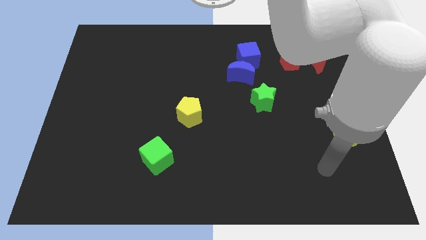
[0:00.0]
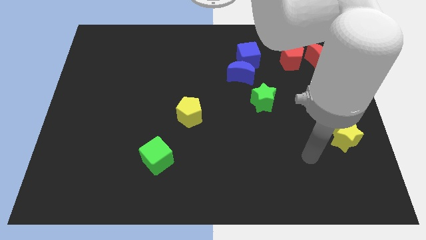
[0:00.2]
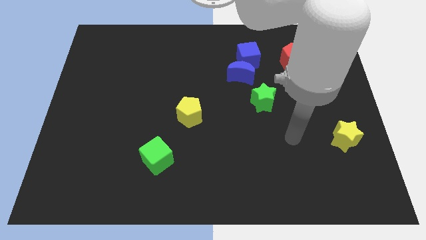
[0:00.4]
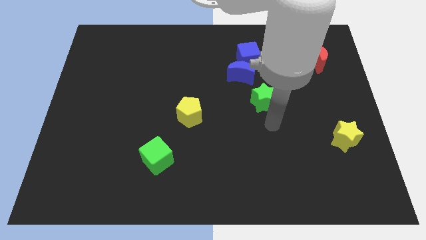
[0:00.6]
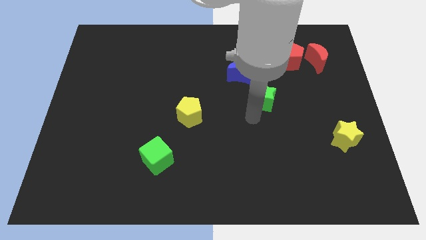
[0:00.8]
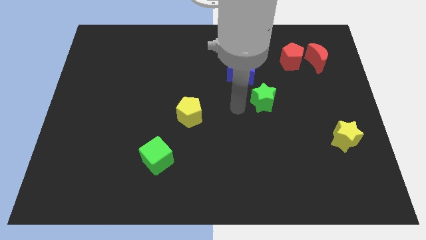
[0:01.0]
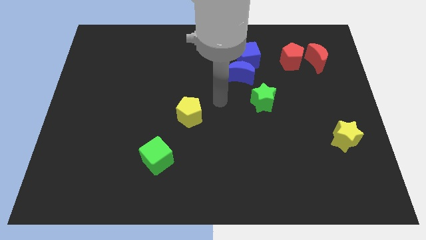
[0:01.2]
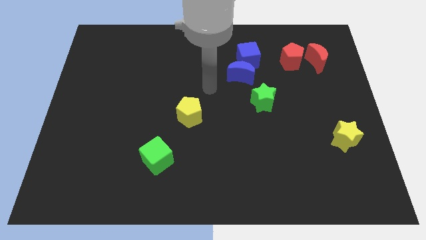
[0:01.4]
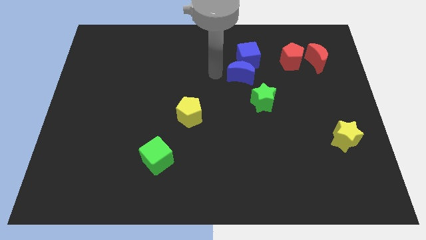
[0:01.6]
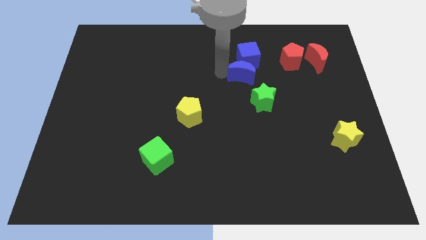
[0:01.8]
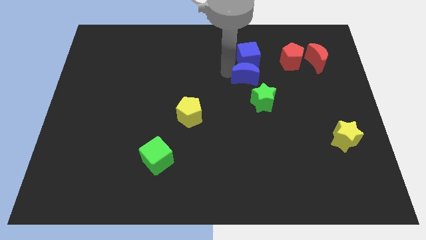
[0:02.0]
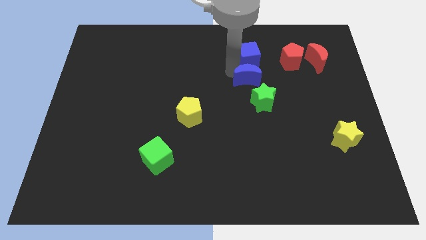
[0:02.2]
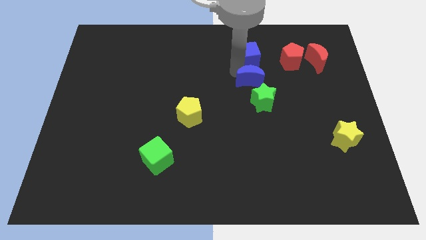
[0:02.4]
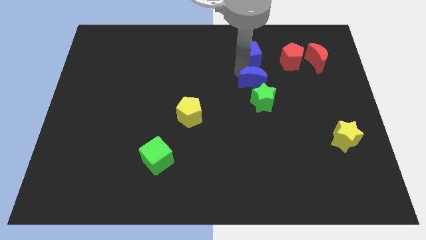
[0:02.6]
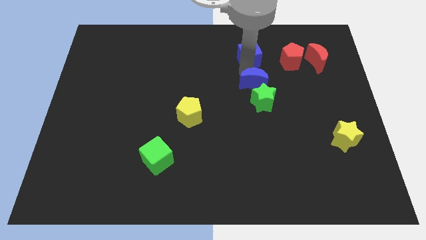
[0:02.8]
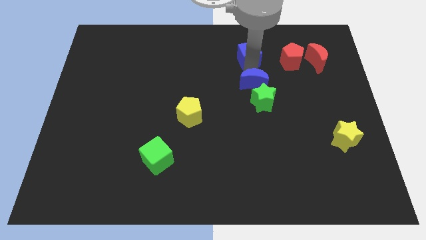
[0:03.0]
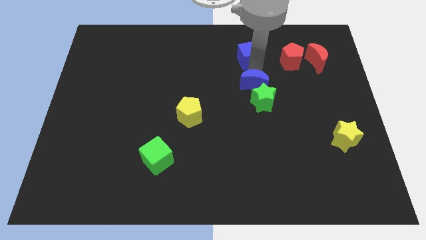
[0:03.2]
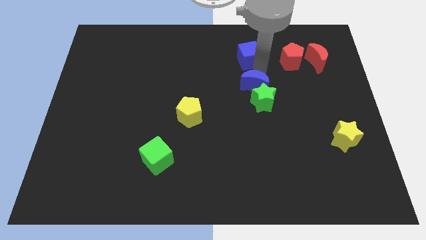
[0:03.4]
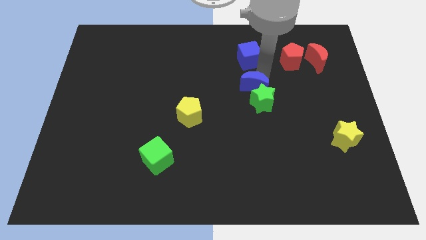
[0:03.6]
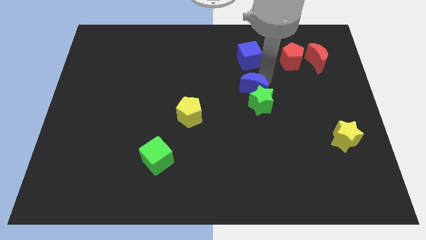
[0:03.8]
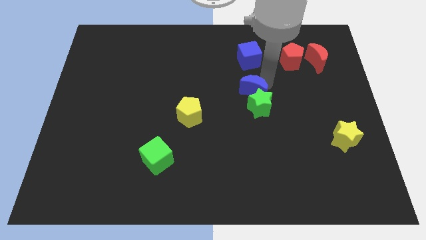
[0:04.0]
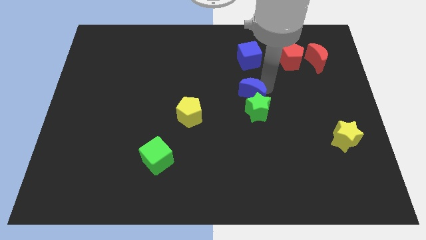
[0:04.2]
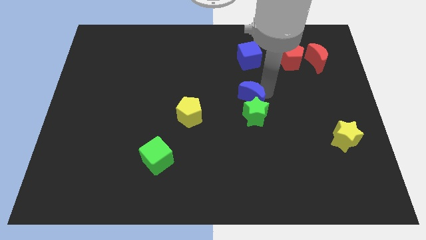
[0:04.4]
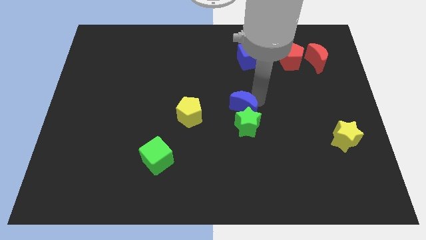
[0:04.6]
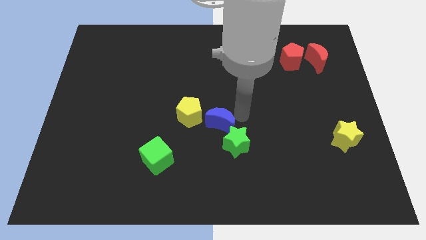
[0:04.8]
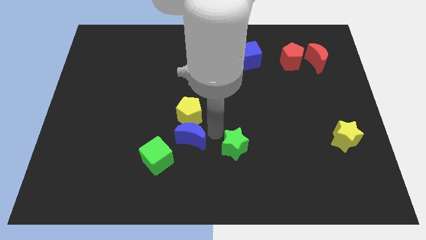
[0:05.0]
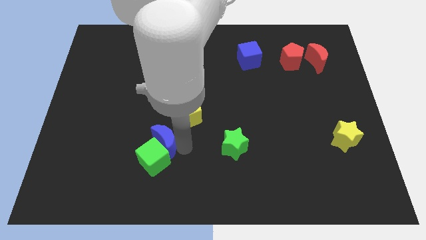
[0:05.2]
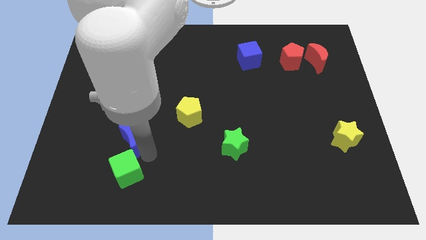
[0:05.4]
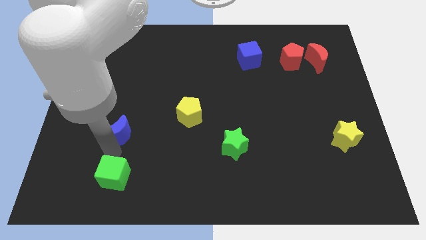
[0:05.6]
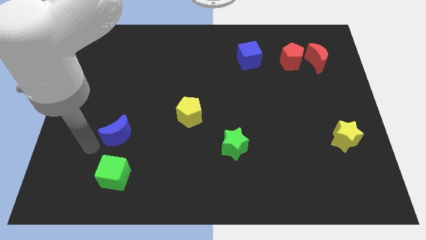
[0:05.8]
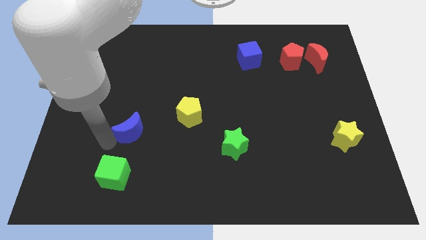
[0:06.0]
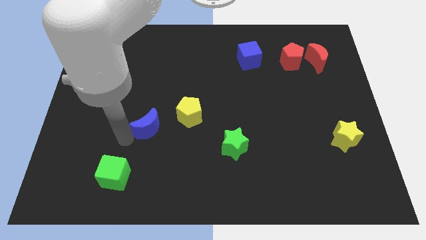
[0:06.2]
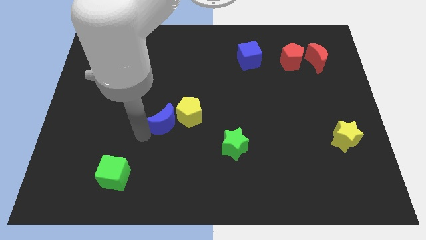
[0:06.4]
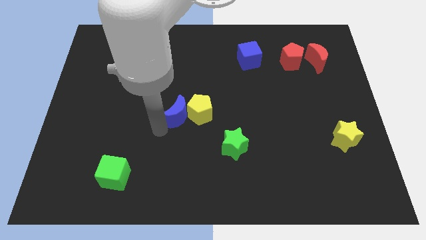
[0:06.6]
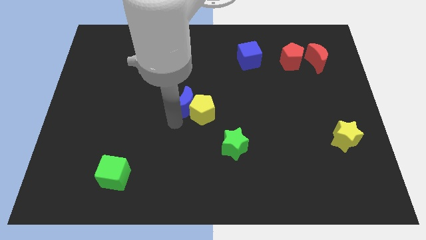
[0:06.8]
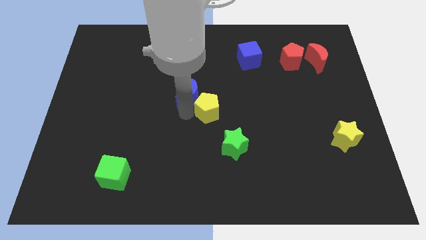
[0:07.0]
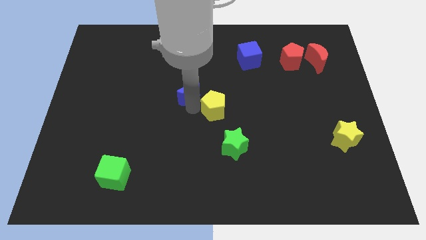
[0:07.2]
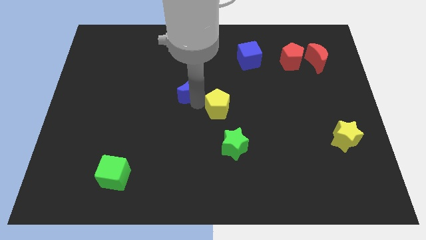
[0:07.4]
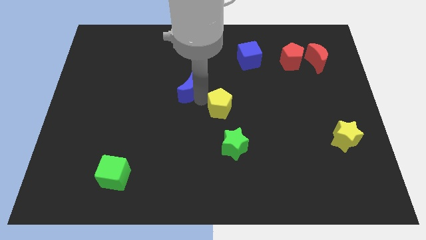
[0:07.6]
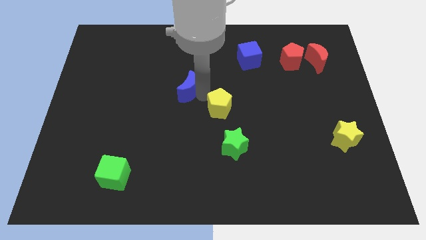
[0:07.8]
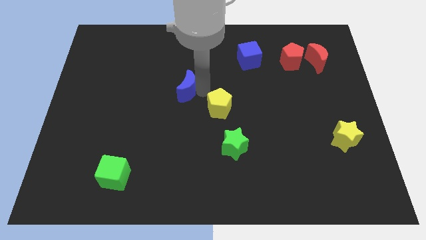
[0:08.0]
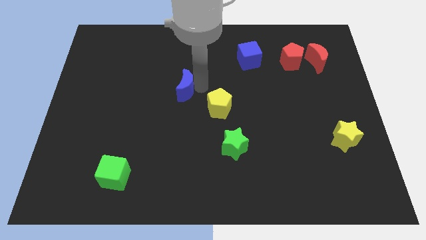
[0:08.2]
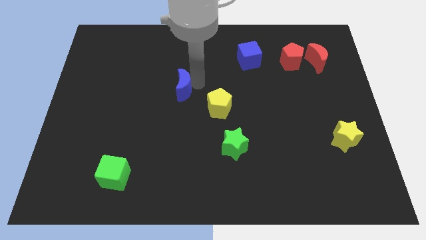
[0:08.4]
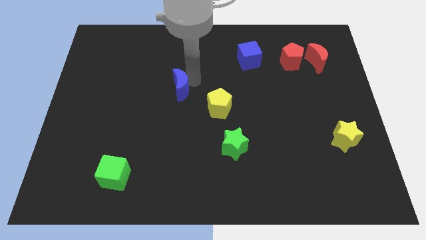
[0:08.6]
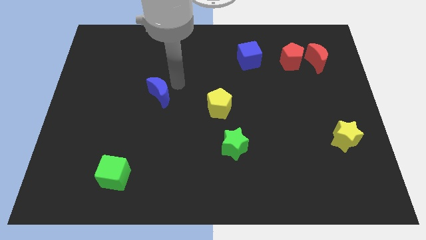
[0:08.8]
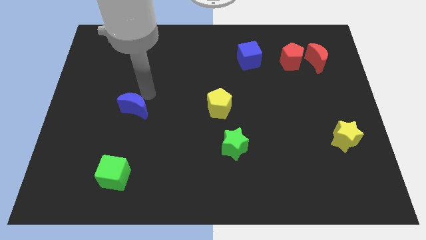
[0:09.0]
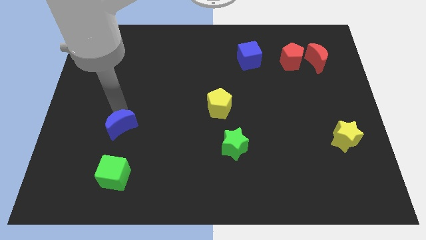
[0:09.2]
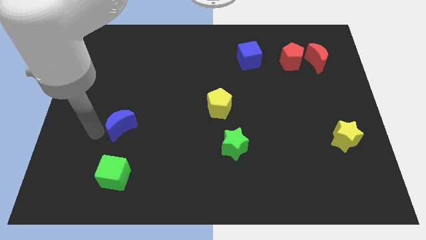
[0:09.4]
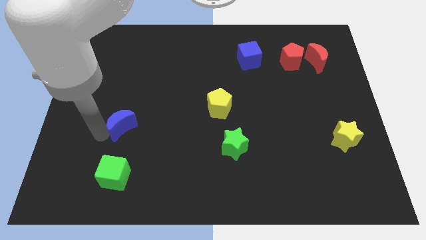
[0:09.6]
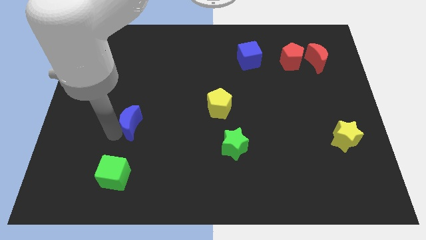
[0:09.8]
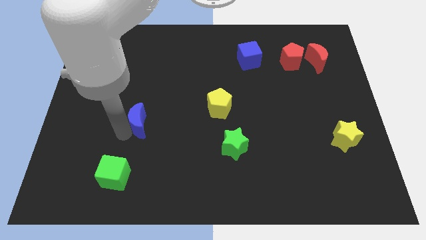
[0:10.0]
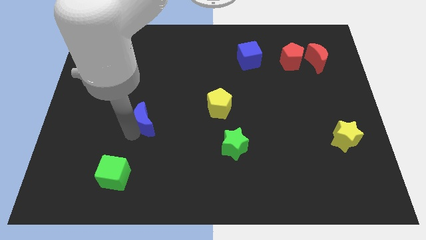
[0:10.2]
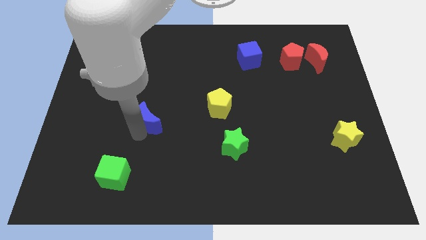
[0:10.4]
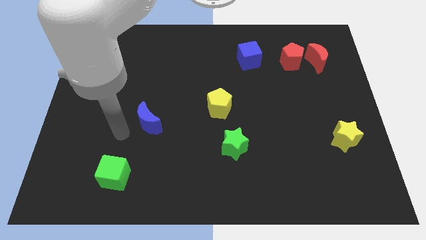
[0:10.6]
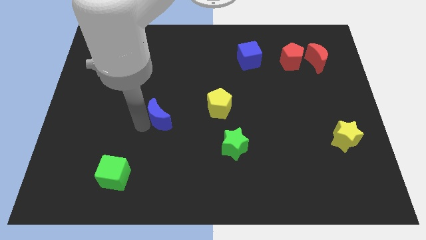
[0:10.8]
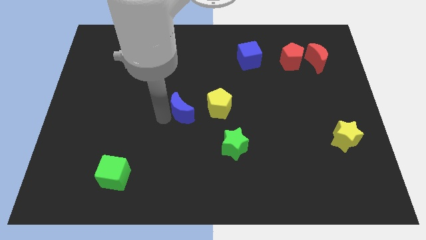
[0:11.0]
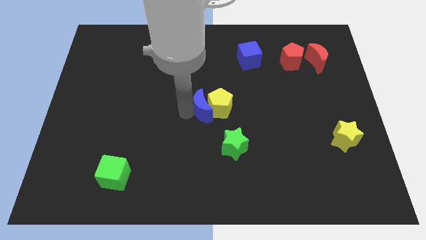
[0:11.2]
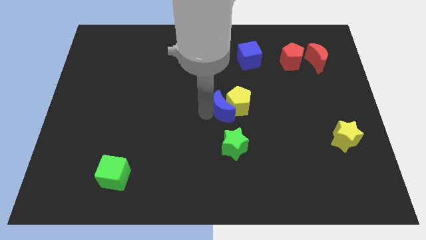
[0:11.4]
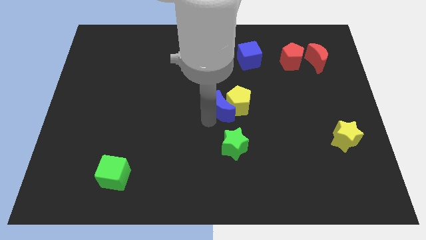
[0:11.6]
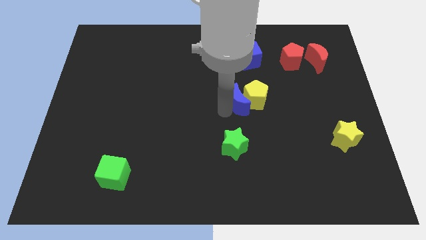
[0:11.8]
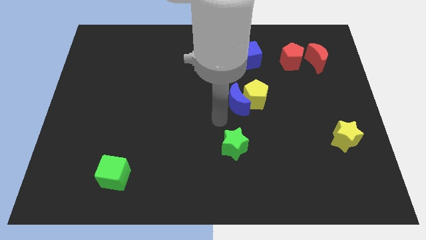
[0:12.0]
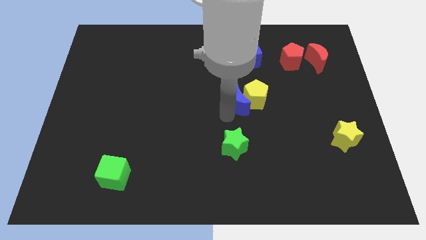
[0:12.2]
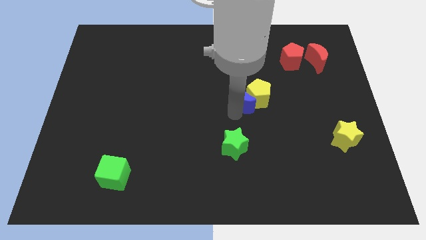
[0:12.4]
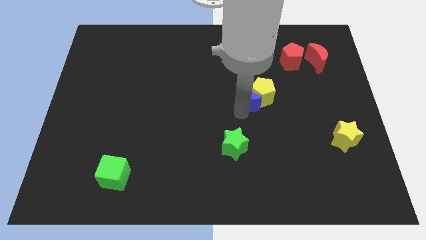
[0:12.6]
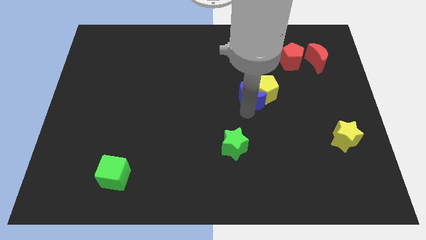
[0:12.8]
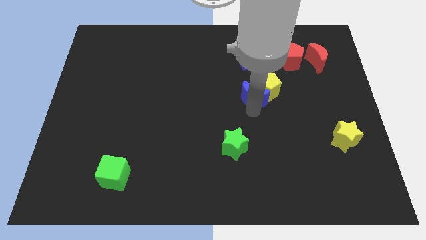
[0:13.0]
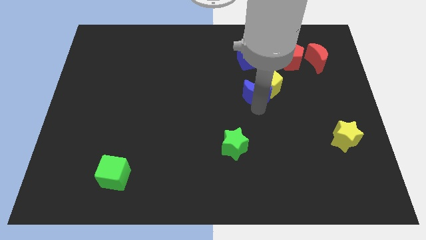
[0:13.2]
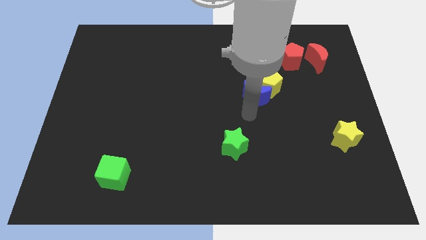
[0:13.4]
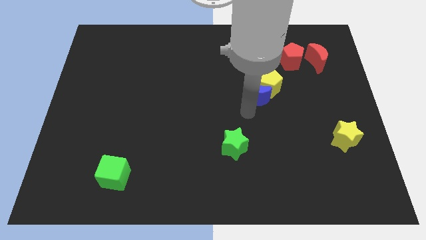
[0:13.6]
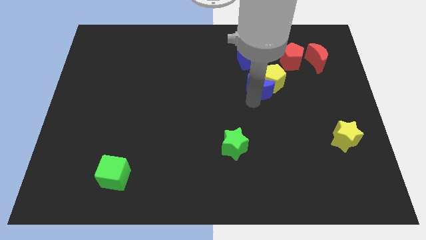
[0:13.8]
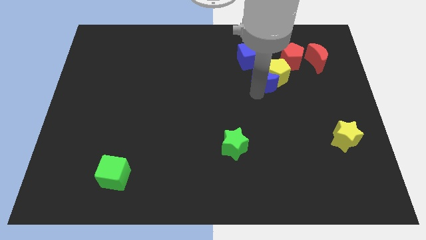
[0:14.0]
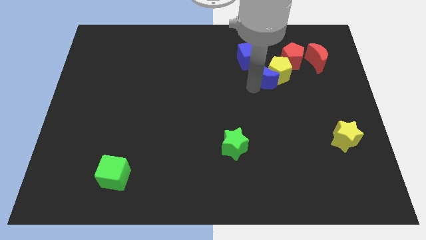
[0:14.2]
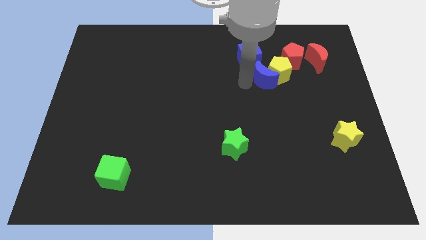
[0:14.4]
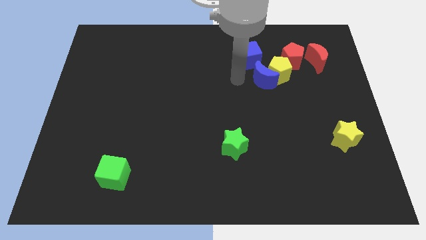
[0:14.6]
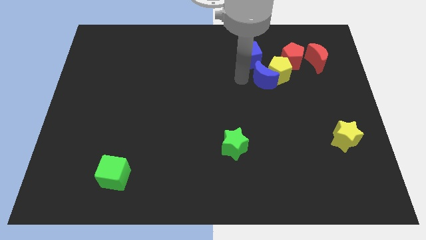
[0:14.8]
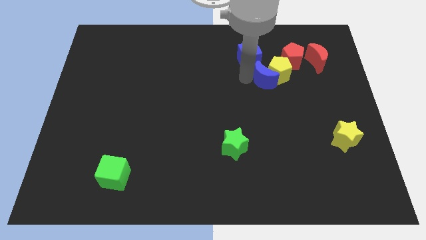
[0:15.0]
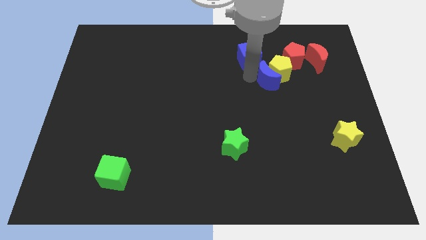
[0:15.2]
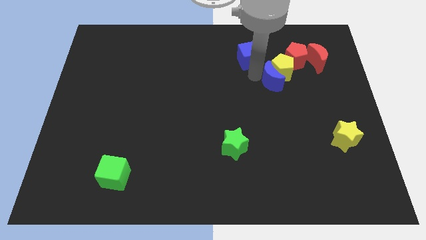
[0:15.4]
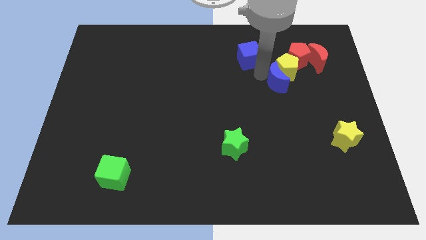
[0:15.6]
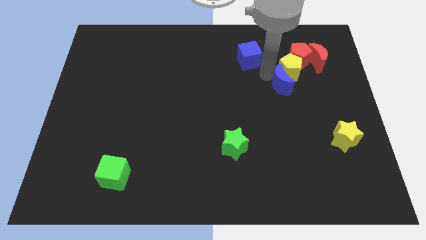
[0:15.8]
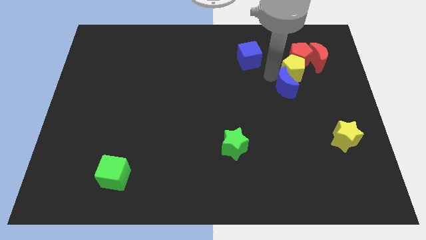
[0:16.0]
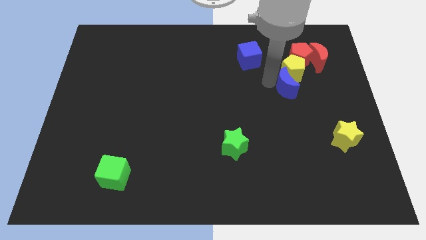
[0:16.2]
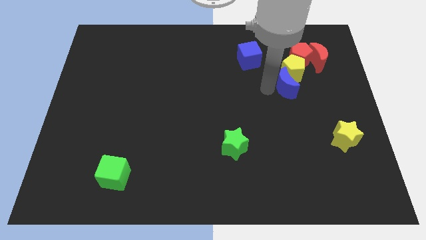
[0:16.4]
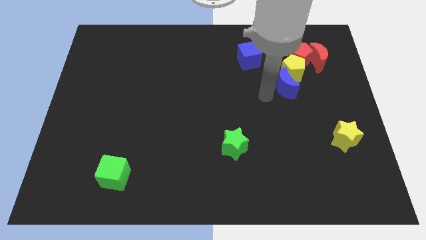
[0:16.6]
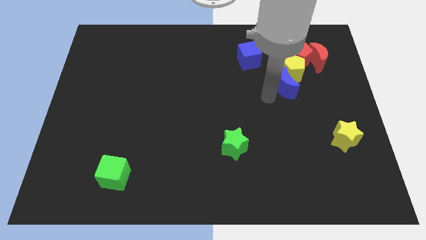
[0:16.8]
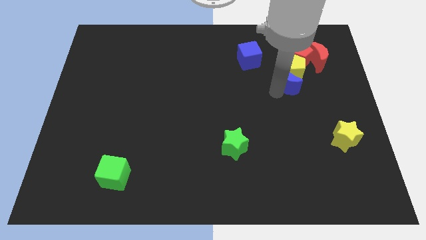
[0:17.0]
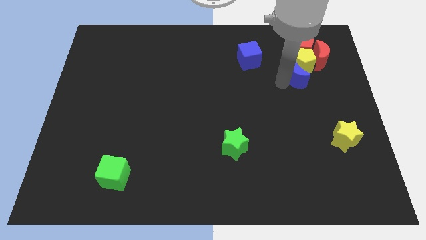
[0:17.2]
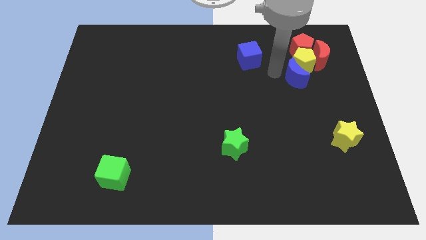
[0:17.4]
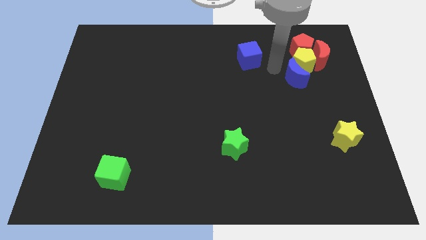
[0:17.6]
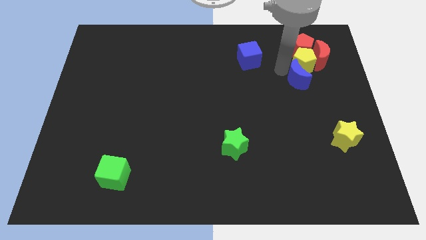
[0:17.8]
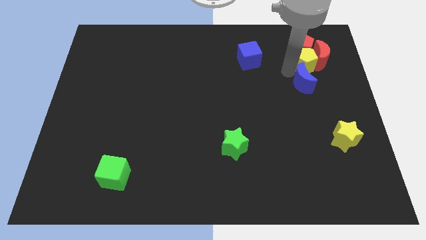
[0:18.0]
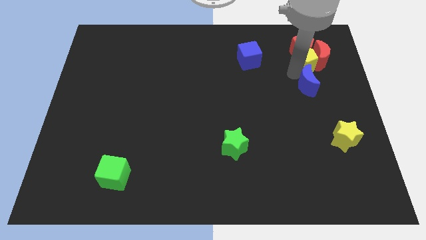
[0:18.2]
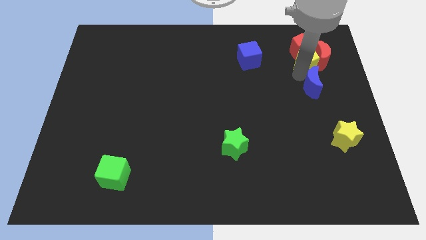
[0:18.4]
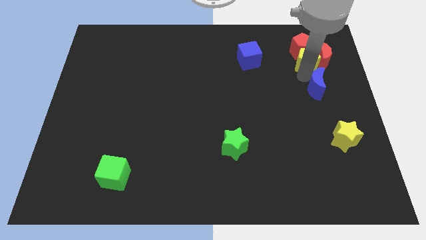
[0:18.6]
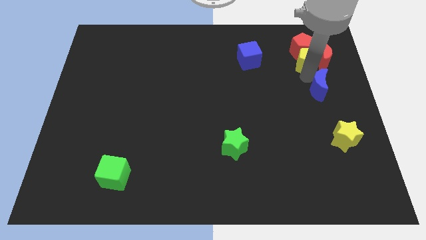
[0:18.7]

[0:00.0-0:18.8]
slide the blue moon above the yellow star
